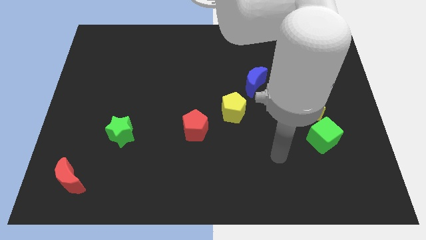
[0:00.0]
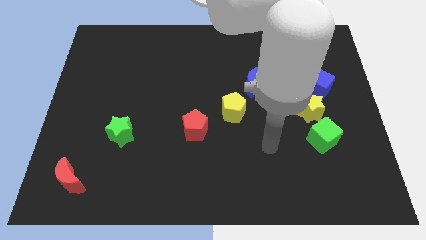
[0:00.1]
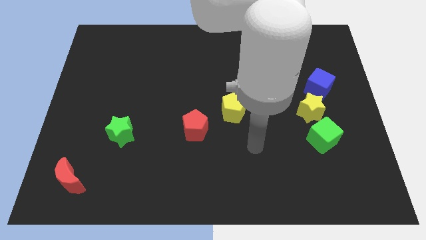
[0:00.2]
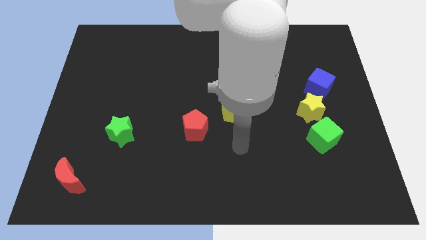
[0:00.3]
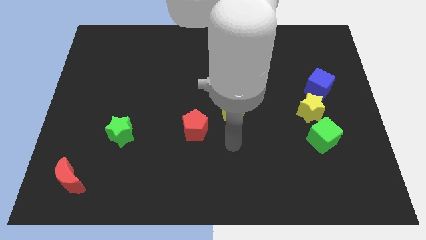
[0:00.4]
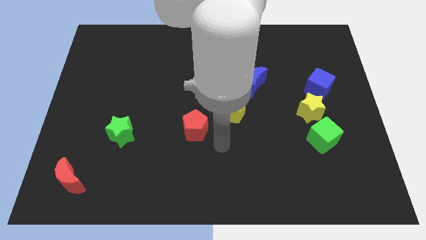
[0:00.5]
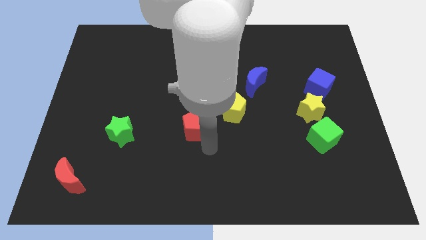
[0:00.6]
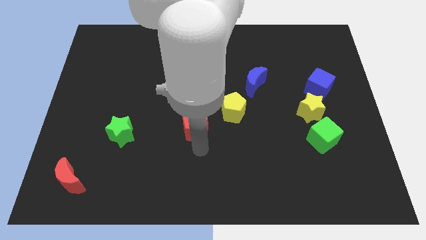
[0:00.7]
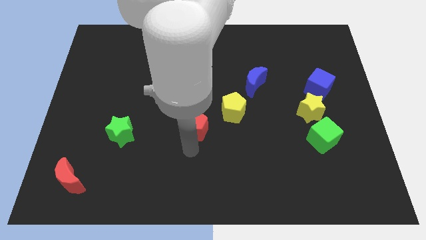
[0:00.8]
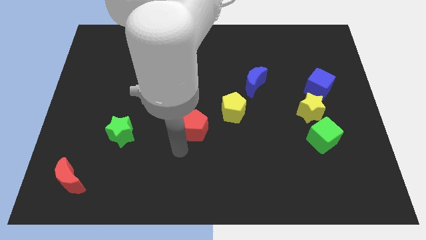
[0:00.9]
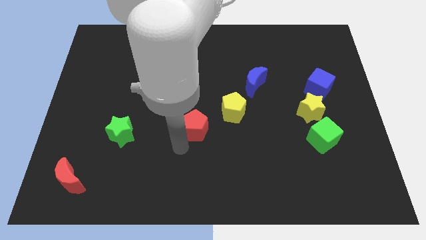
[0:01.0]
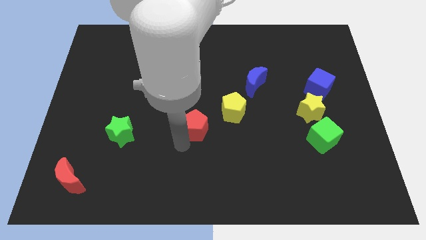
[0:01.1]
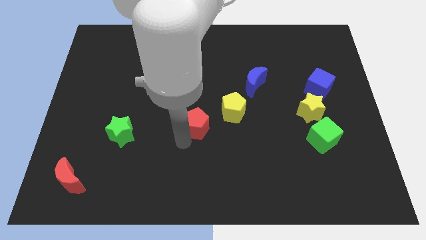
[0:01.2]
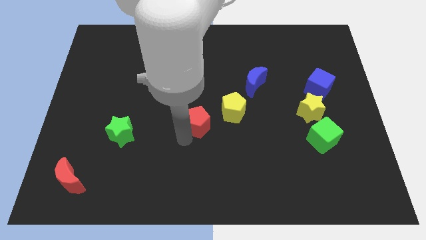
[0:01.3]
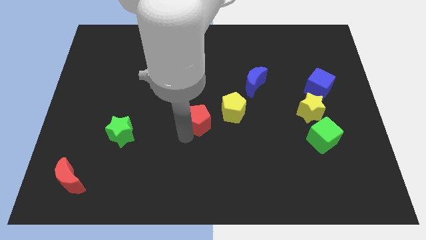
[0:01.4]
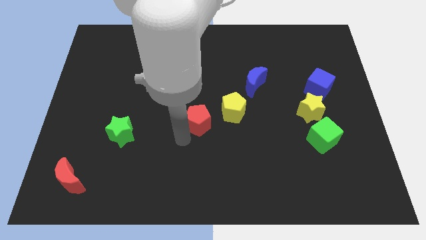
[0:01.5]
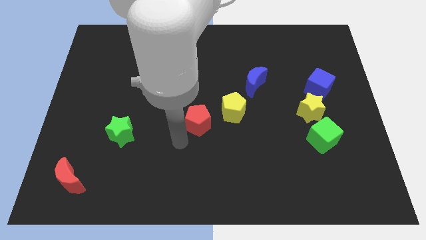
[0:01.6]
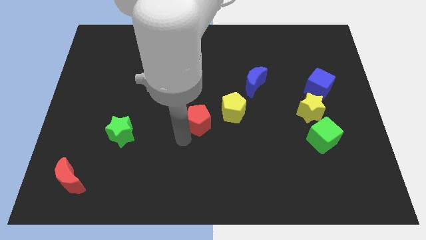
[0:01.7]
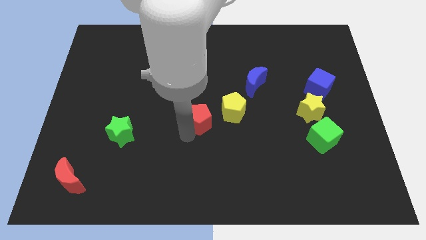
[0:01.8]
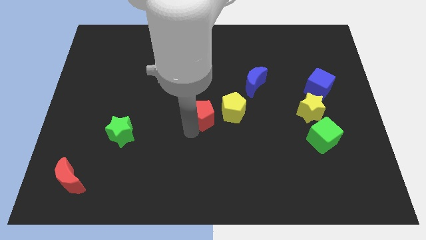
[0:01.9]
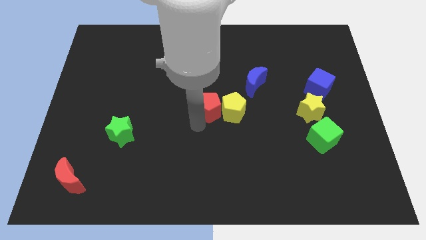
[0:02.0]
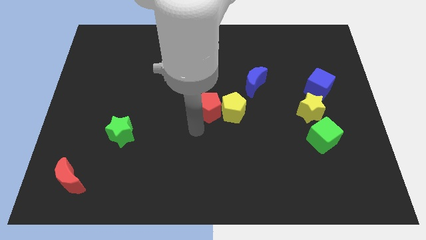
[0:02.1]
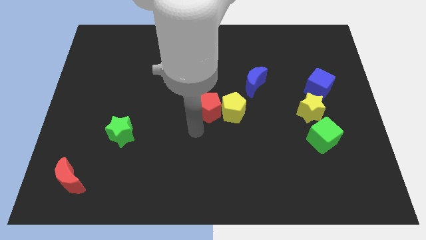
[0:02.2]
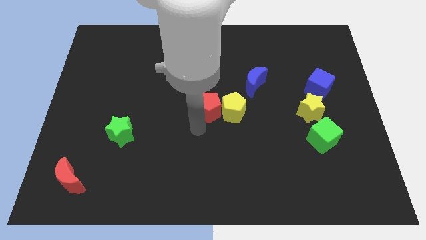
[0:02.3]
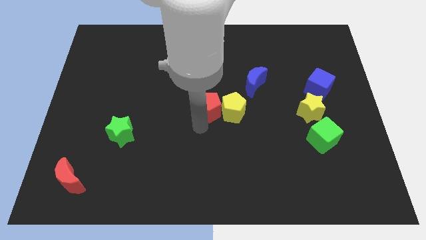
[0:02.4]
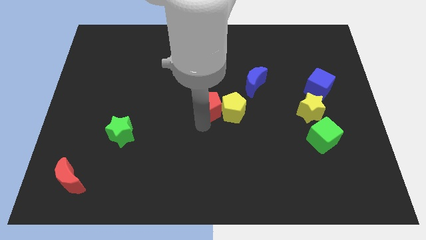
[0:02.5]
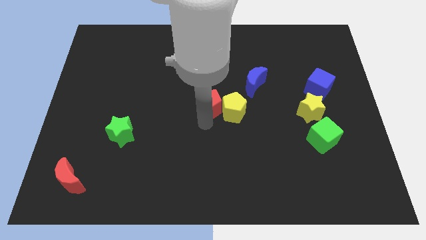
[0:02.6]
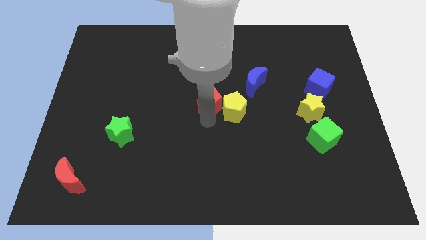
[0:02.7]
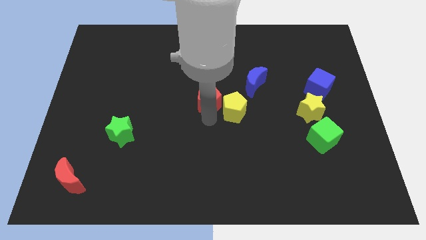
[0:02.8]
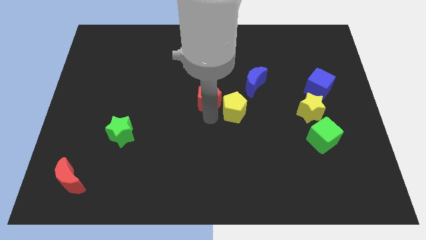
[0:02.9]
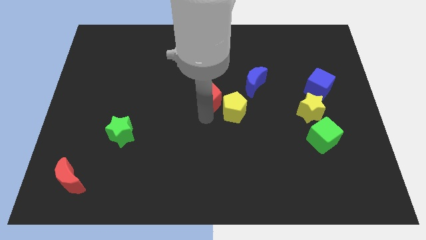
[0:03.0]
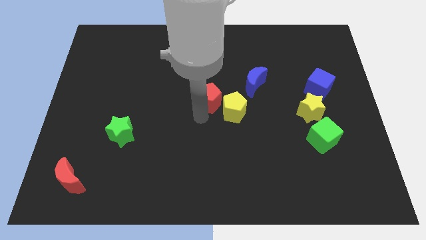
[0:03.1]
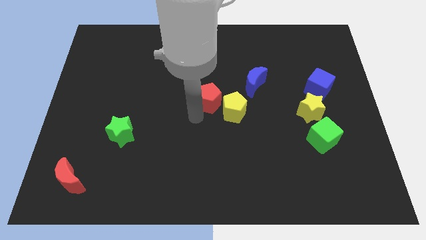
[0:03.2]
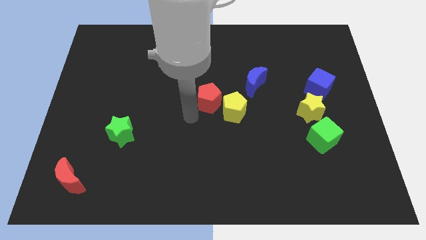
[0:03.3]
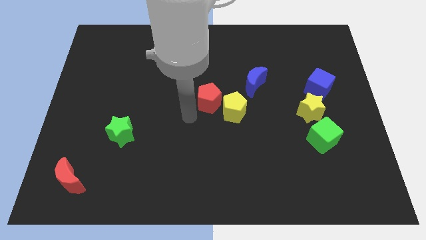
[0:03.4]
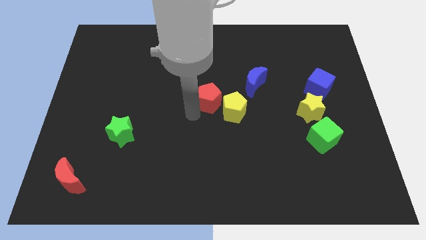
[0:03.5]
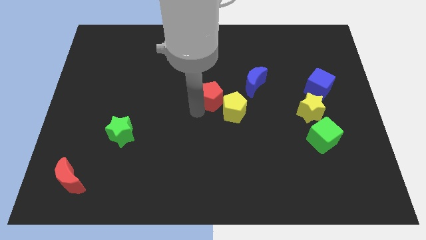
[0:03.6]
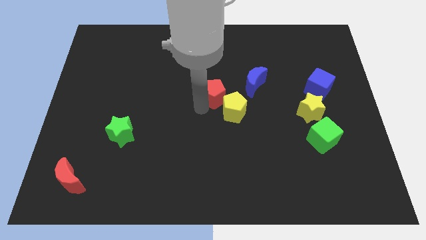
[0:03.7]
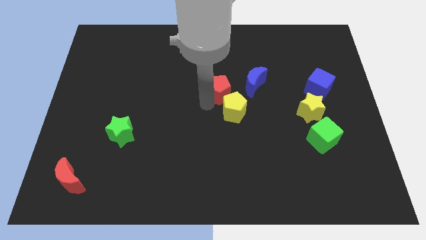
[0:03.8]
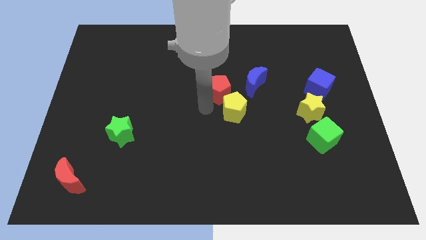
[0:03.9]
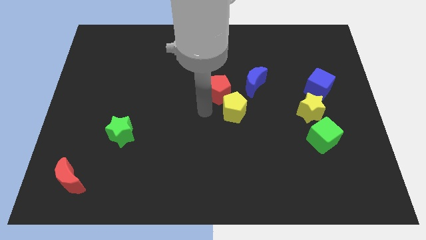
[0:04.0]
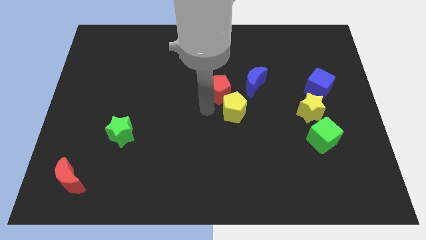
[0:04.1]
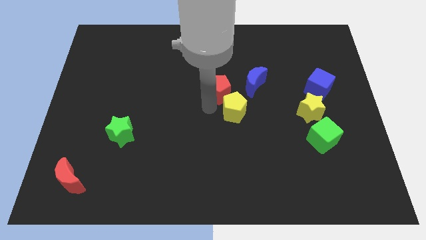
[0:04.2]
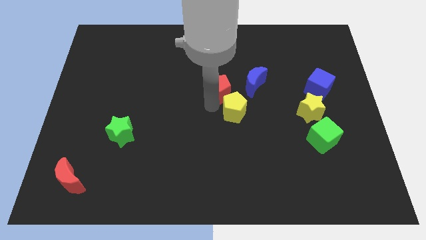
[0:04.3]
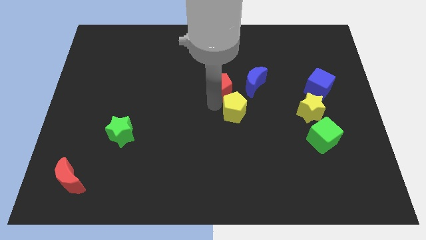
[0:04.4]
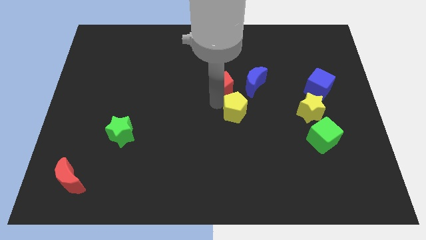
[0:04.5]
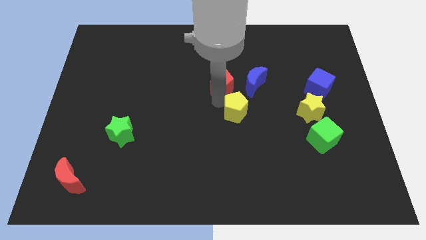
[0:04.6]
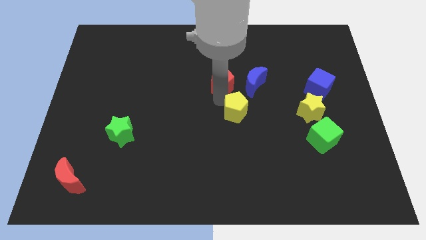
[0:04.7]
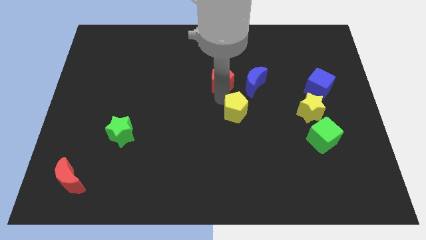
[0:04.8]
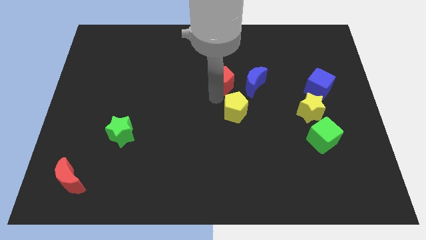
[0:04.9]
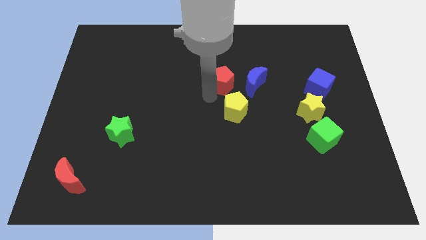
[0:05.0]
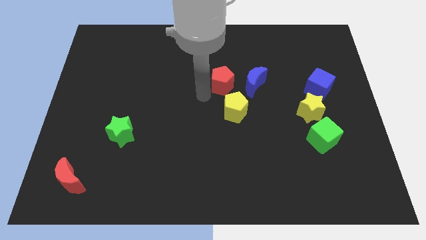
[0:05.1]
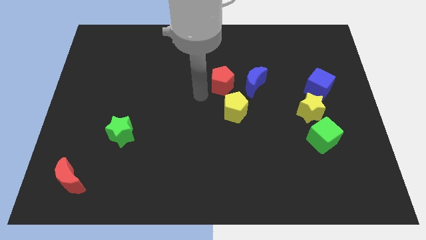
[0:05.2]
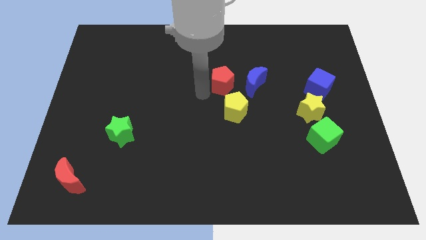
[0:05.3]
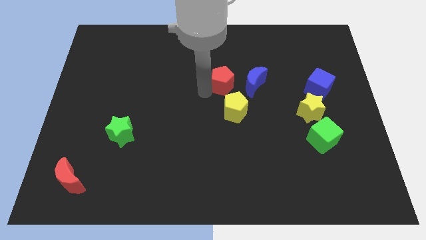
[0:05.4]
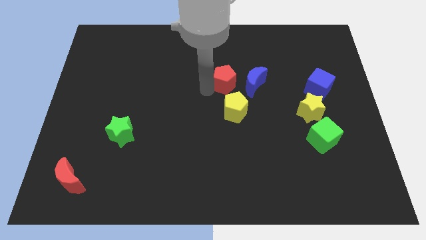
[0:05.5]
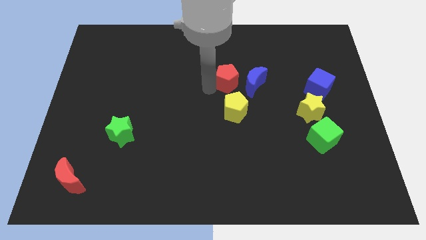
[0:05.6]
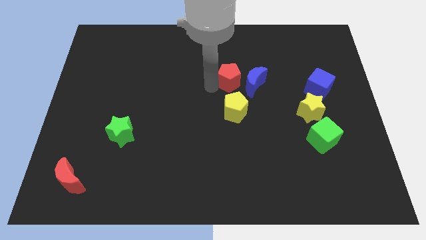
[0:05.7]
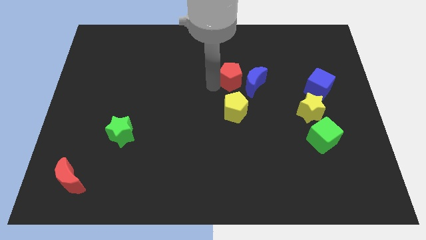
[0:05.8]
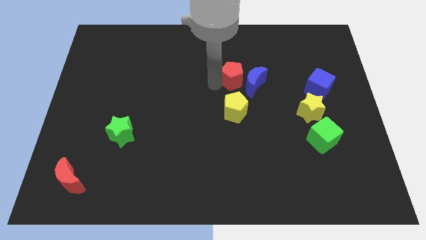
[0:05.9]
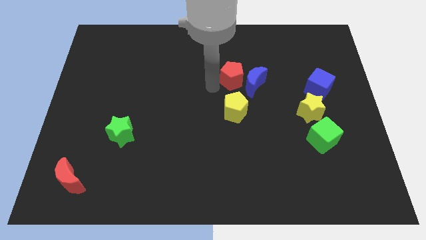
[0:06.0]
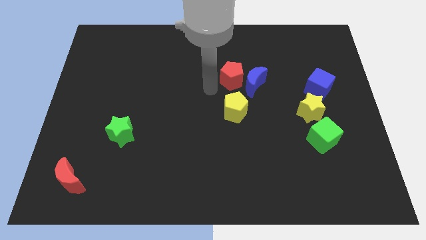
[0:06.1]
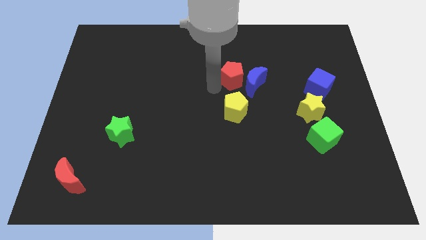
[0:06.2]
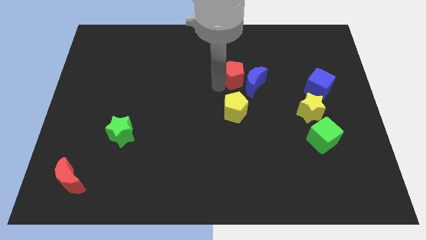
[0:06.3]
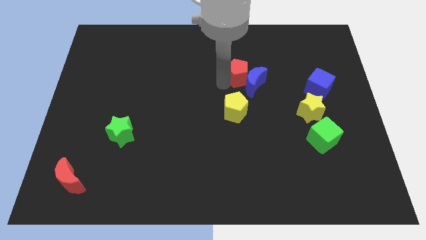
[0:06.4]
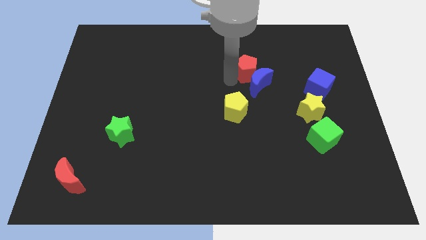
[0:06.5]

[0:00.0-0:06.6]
move the red pentagon up and then right

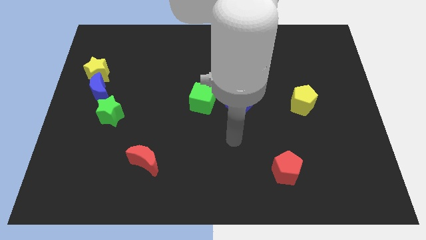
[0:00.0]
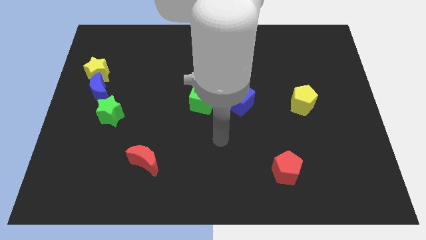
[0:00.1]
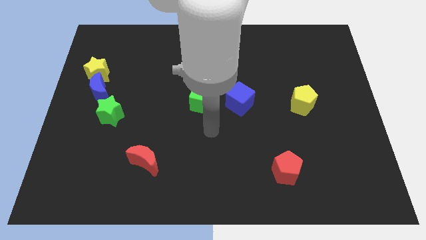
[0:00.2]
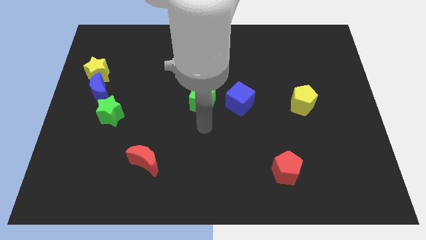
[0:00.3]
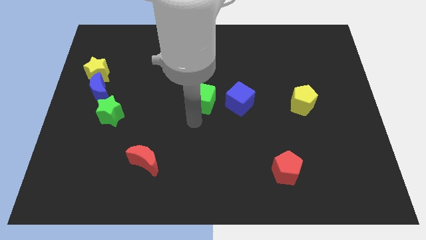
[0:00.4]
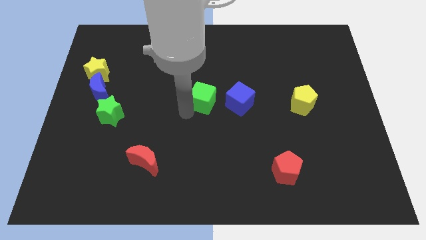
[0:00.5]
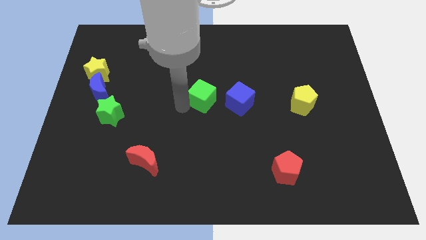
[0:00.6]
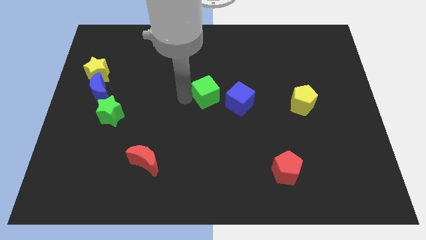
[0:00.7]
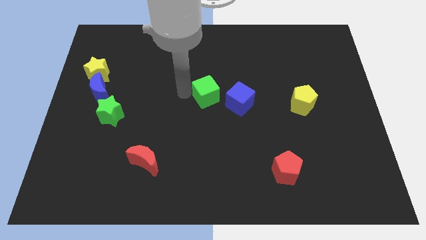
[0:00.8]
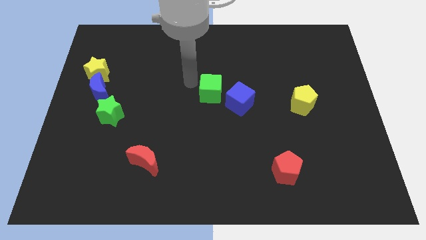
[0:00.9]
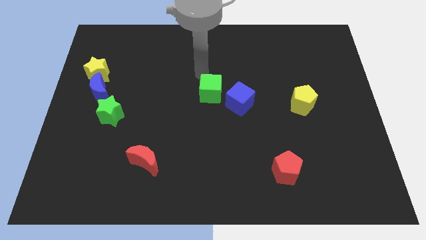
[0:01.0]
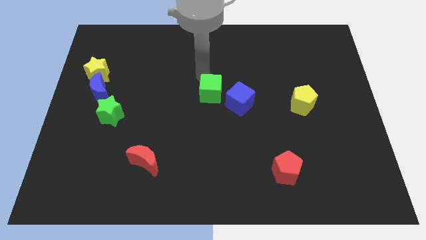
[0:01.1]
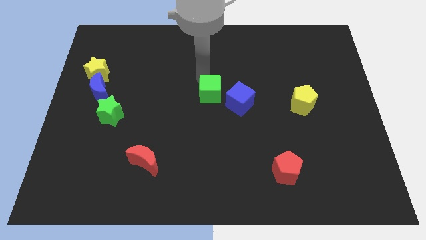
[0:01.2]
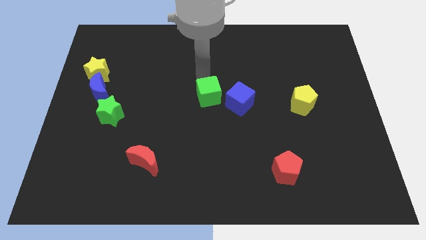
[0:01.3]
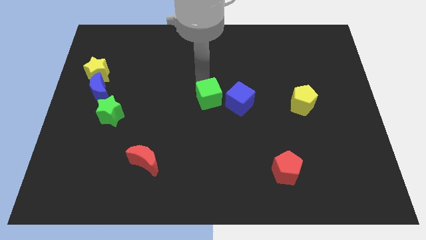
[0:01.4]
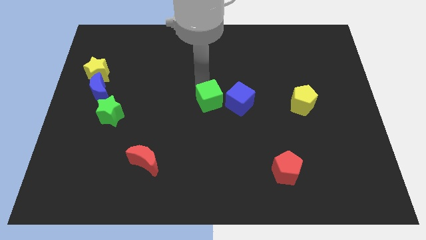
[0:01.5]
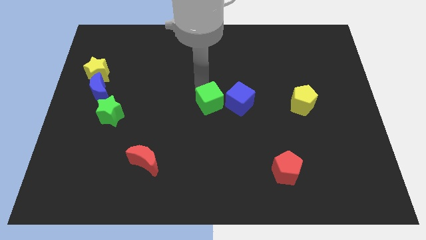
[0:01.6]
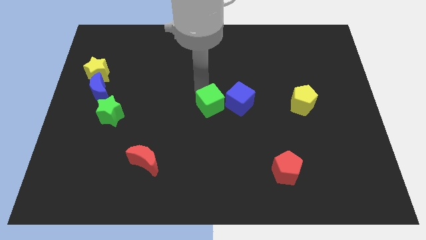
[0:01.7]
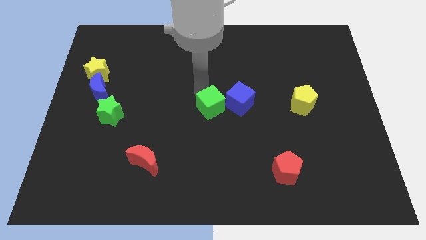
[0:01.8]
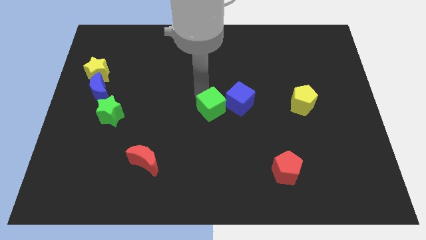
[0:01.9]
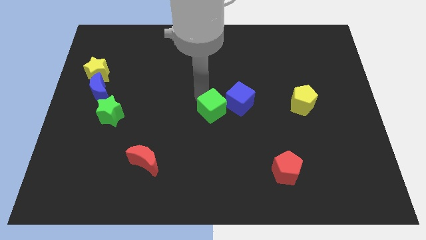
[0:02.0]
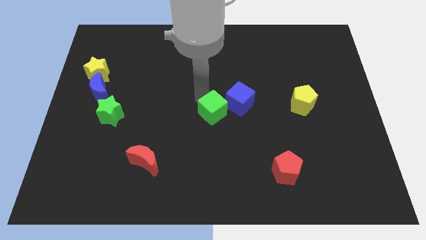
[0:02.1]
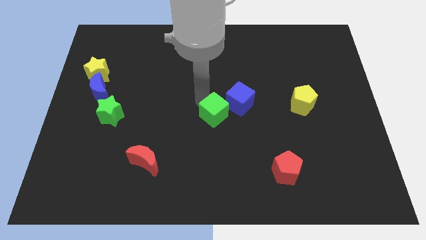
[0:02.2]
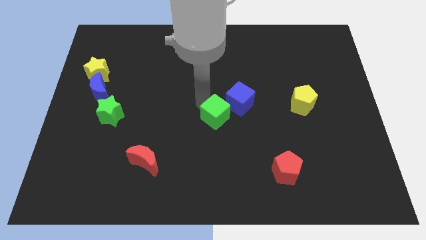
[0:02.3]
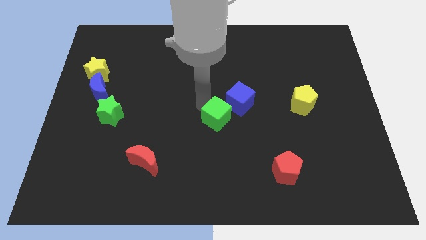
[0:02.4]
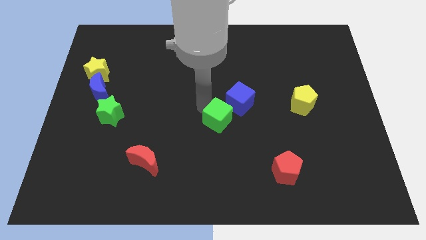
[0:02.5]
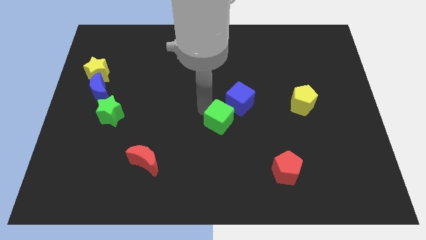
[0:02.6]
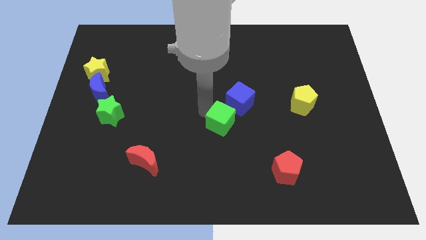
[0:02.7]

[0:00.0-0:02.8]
slide the green cube down and to the right diagonally a bit
